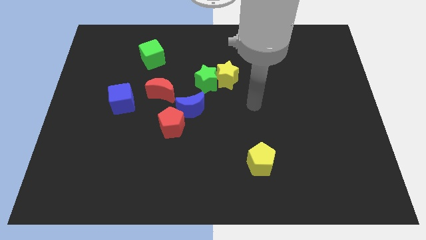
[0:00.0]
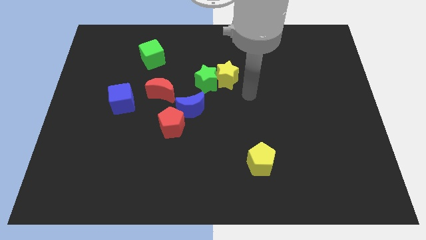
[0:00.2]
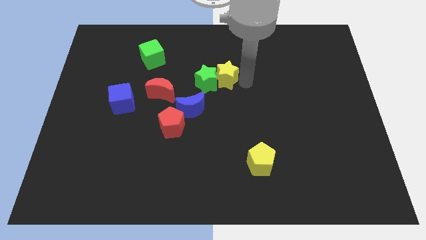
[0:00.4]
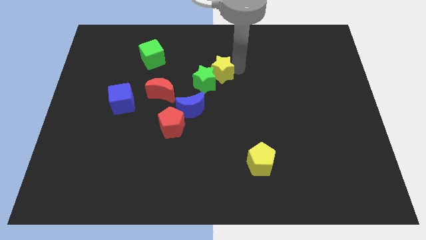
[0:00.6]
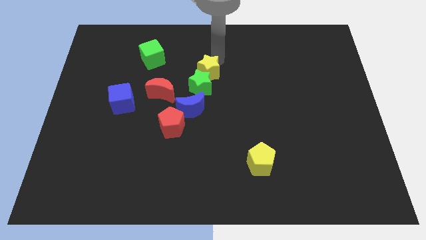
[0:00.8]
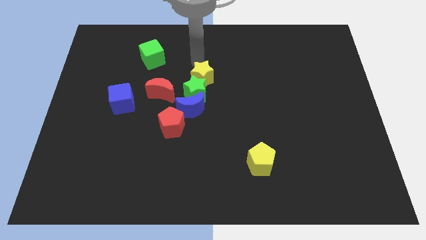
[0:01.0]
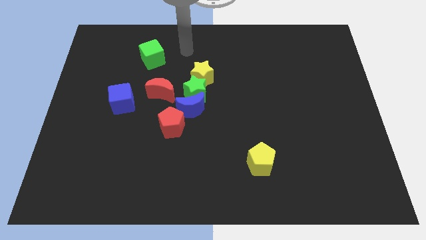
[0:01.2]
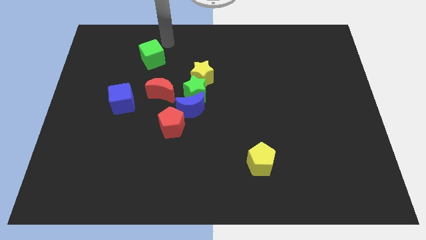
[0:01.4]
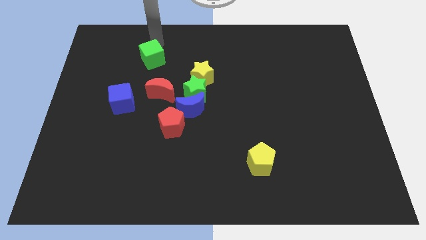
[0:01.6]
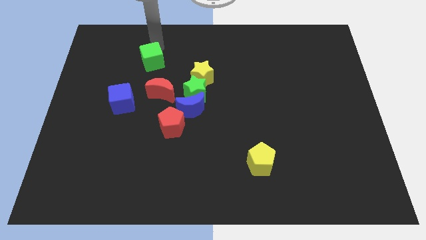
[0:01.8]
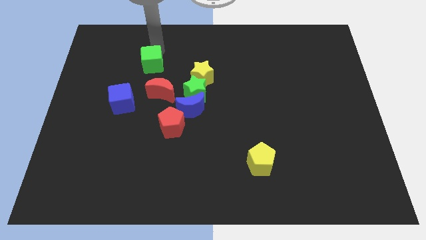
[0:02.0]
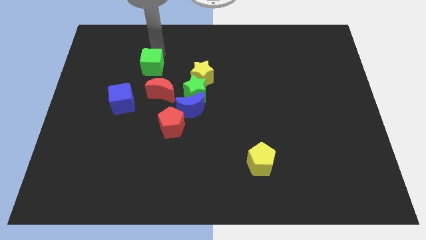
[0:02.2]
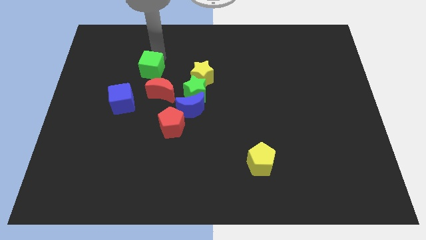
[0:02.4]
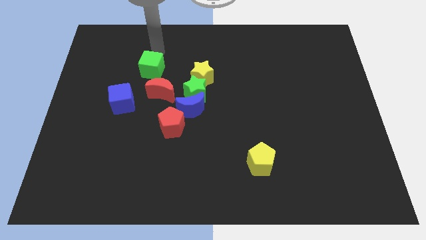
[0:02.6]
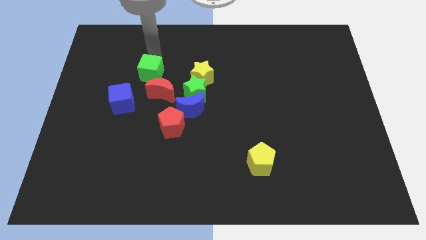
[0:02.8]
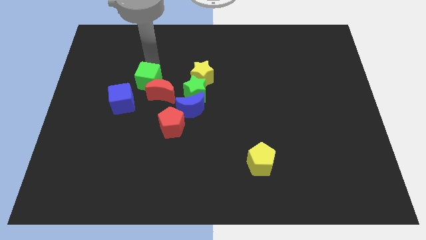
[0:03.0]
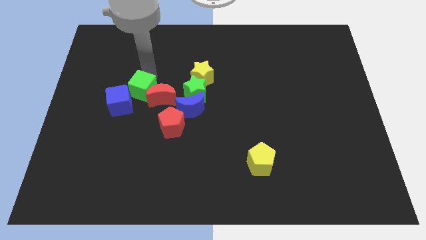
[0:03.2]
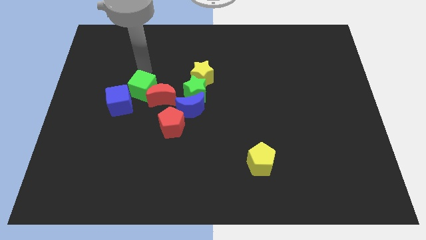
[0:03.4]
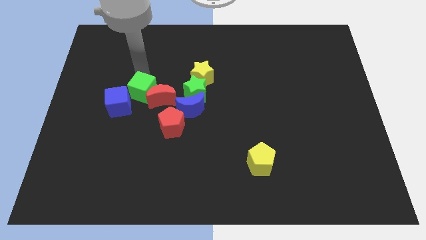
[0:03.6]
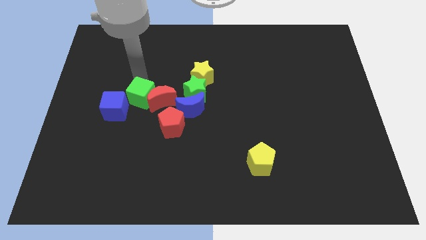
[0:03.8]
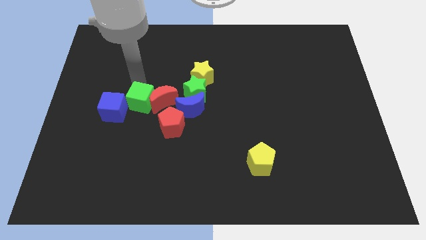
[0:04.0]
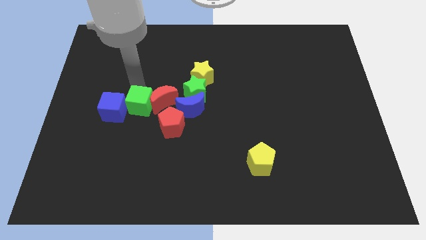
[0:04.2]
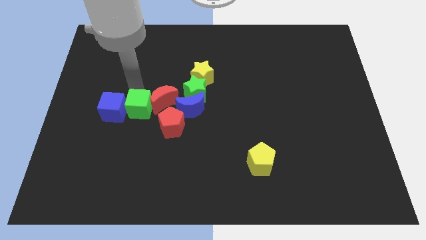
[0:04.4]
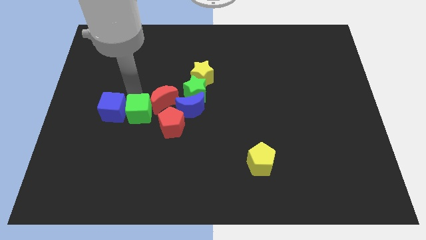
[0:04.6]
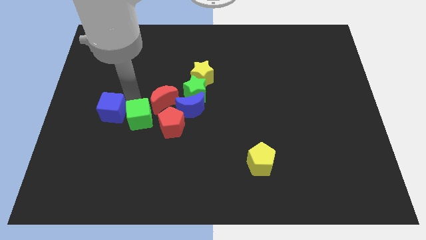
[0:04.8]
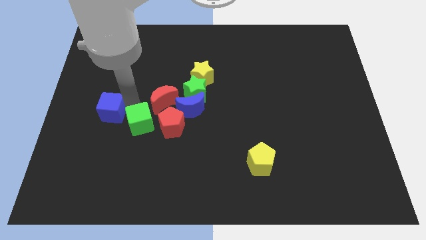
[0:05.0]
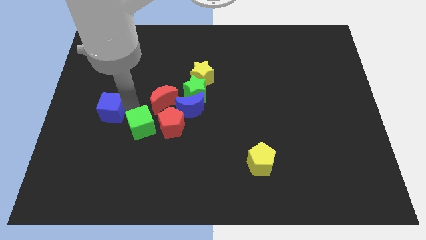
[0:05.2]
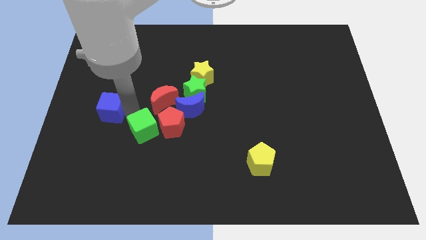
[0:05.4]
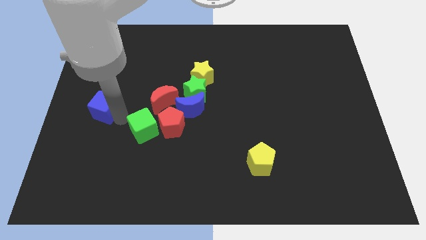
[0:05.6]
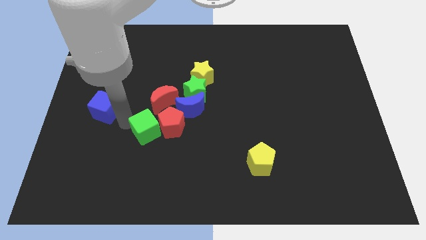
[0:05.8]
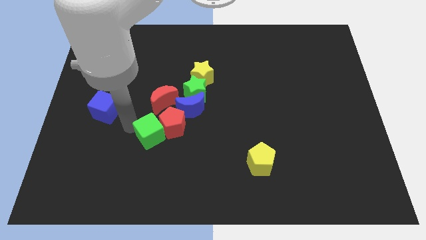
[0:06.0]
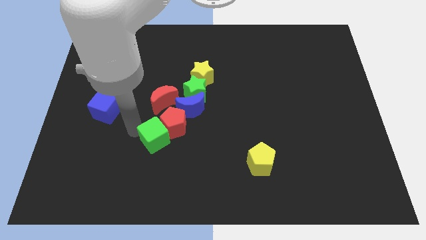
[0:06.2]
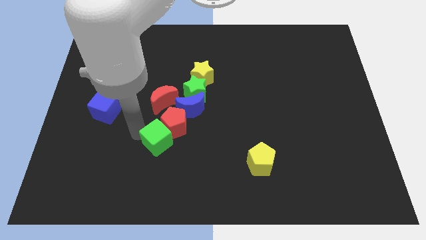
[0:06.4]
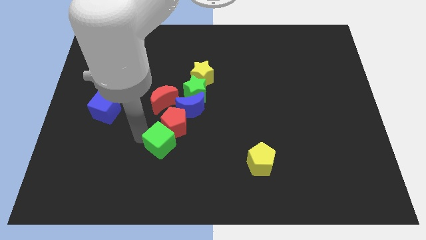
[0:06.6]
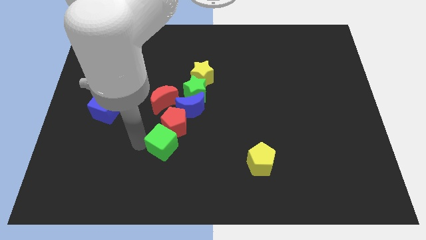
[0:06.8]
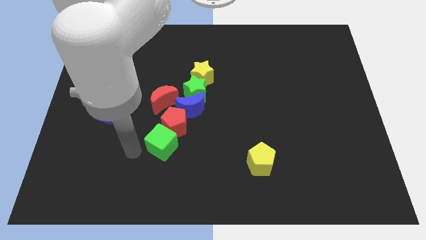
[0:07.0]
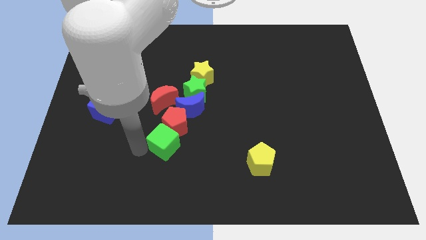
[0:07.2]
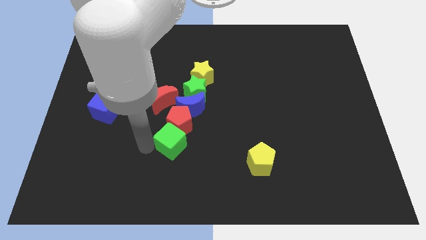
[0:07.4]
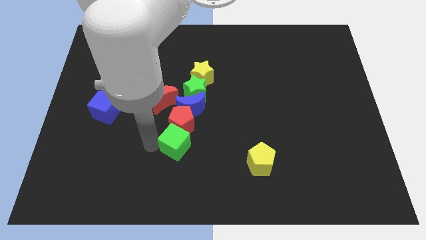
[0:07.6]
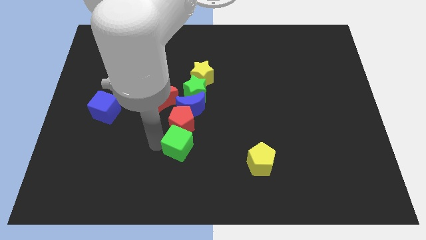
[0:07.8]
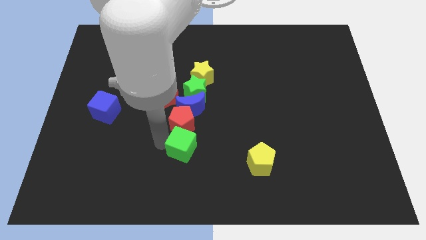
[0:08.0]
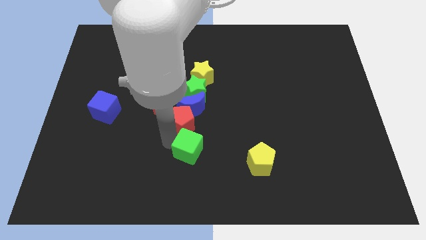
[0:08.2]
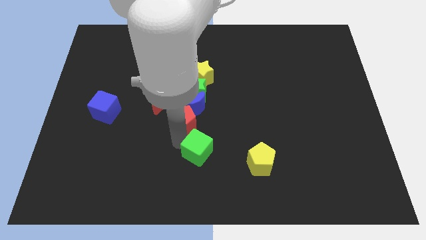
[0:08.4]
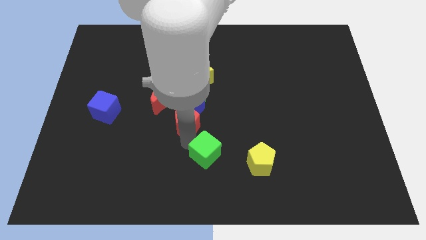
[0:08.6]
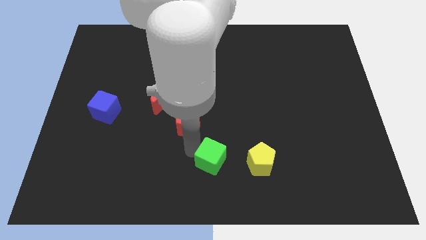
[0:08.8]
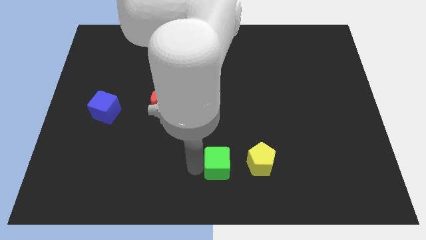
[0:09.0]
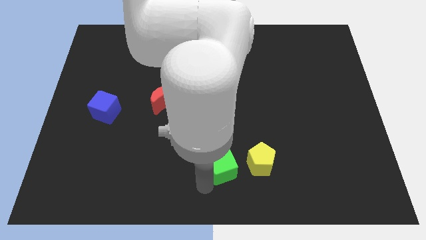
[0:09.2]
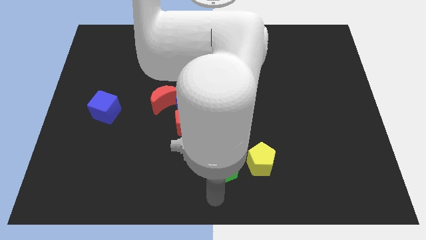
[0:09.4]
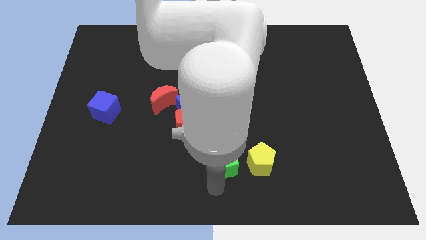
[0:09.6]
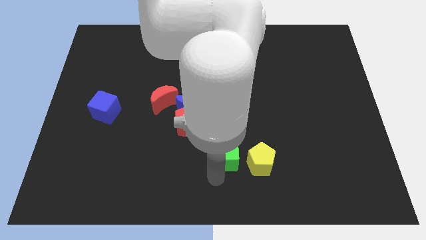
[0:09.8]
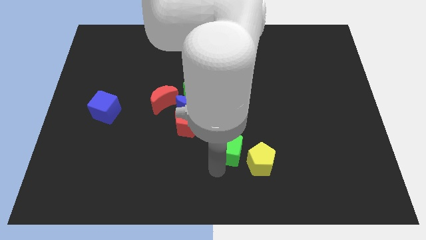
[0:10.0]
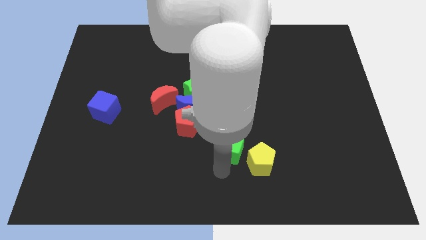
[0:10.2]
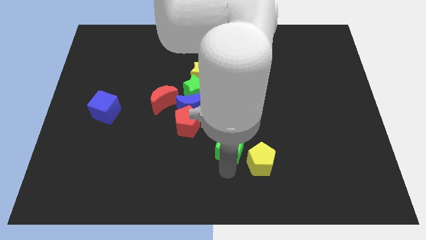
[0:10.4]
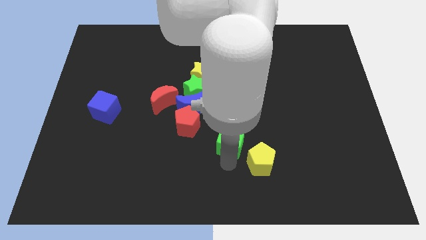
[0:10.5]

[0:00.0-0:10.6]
move the green cube to the right of the red pentagon

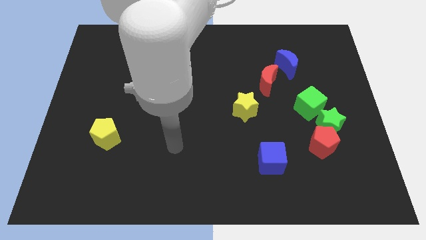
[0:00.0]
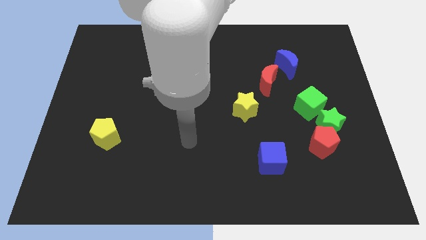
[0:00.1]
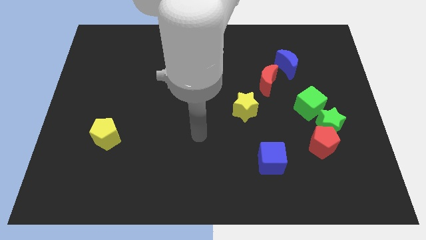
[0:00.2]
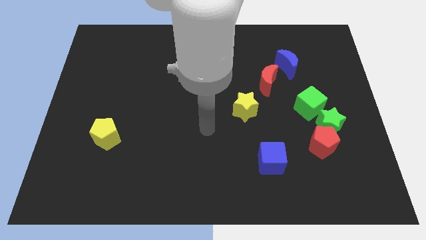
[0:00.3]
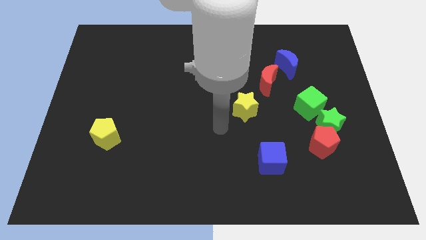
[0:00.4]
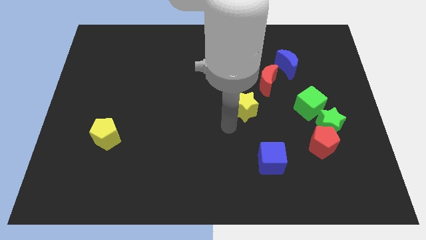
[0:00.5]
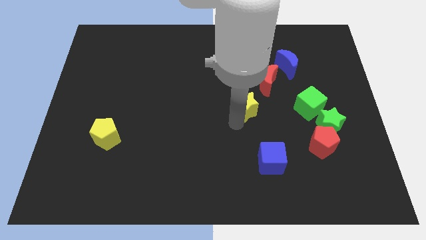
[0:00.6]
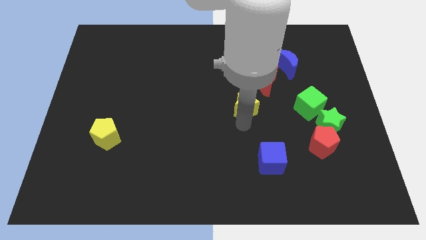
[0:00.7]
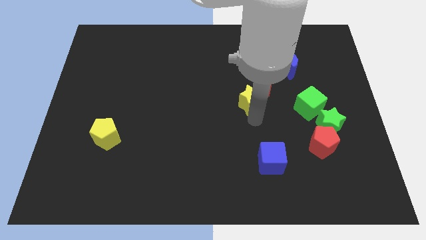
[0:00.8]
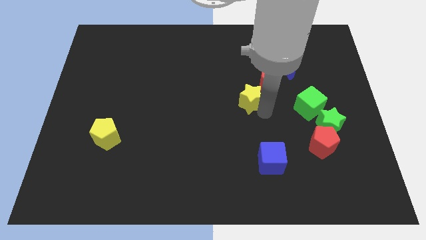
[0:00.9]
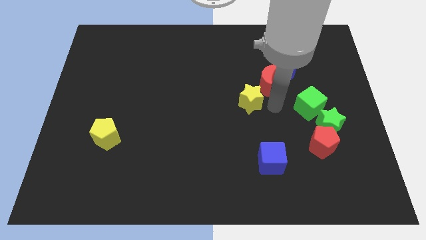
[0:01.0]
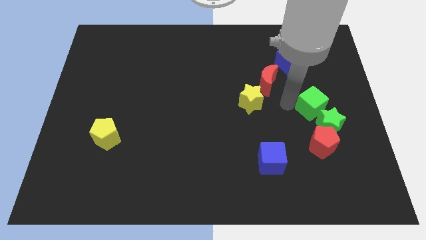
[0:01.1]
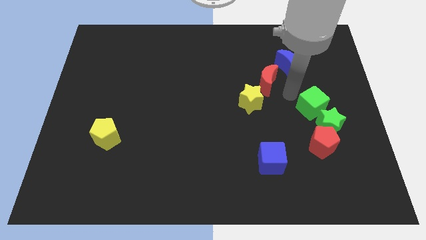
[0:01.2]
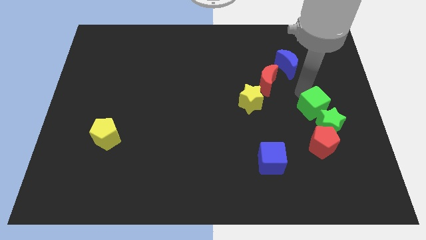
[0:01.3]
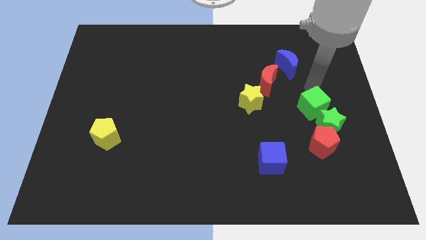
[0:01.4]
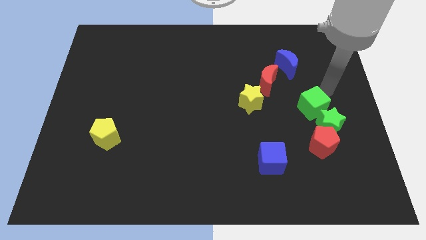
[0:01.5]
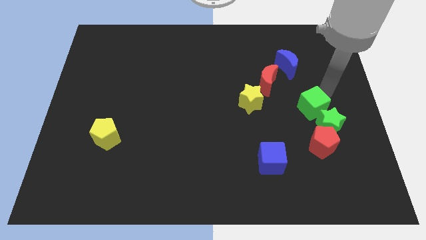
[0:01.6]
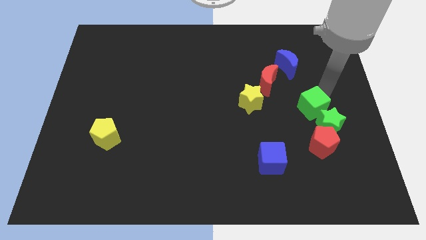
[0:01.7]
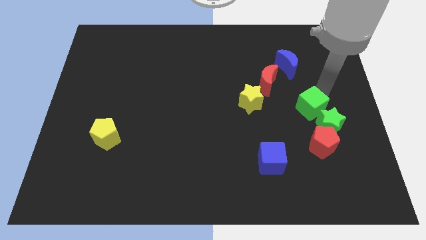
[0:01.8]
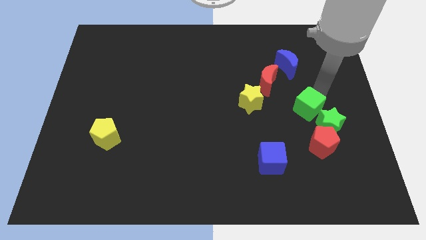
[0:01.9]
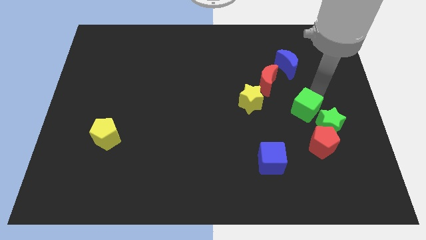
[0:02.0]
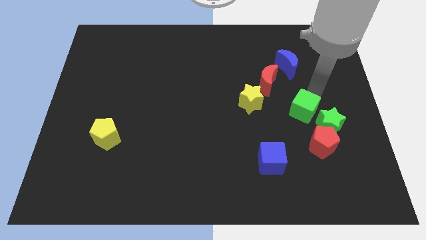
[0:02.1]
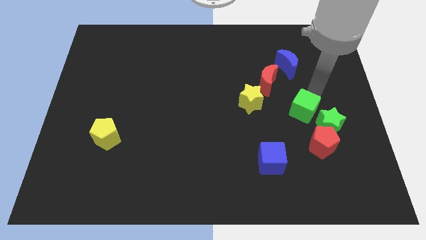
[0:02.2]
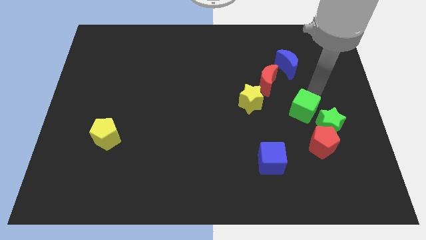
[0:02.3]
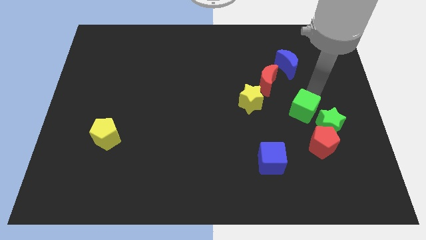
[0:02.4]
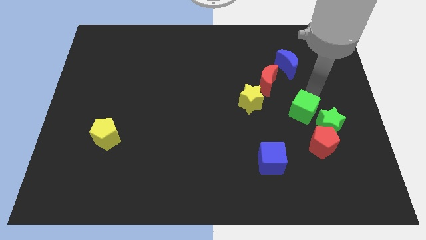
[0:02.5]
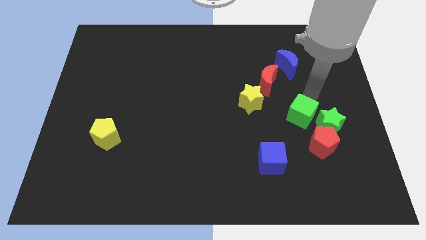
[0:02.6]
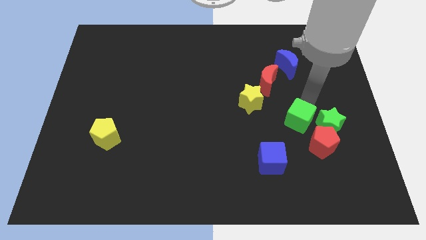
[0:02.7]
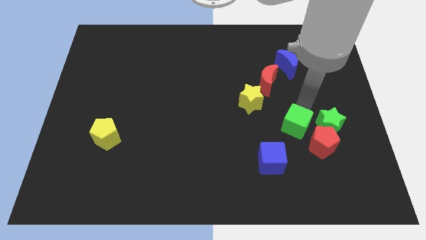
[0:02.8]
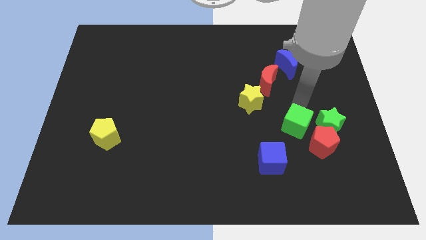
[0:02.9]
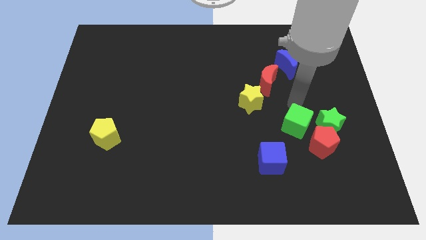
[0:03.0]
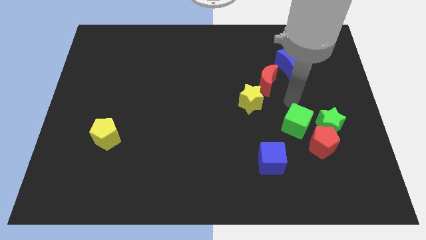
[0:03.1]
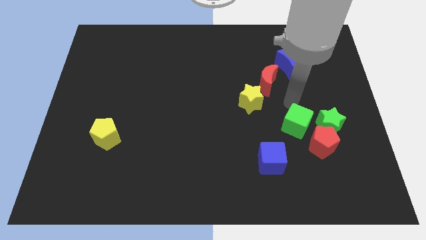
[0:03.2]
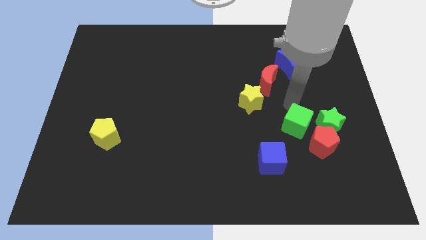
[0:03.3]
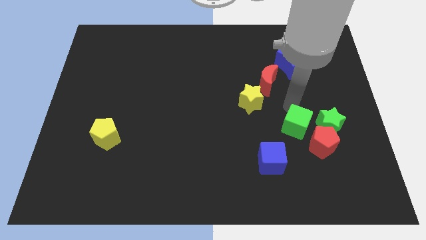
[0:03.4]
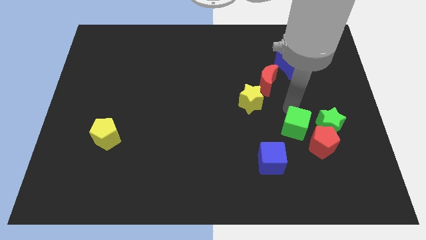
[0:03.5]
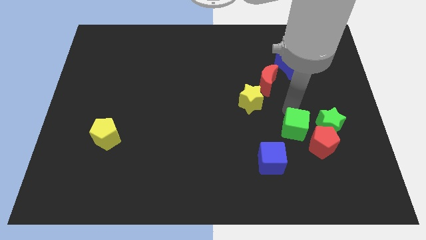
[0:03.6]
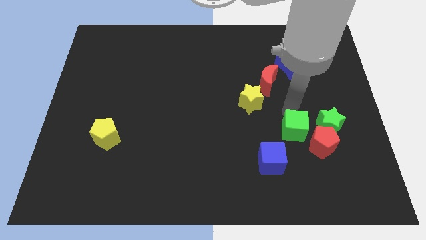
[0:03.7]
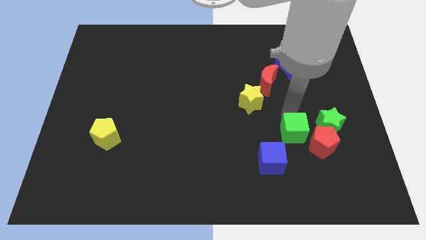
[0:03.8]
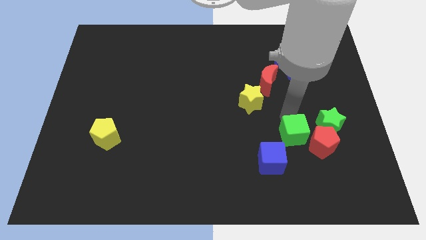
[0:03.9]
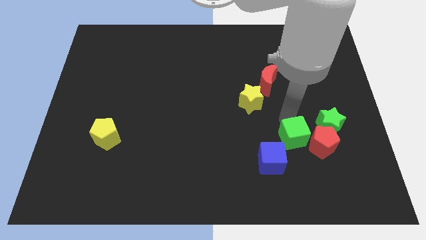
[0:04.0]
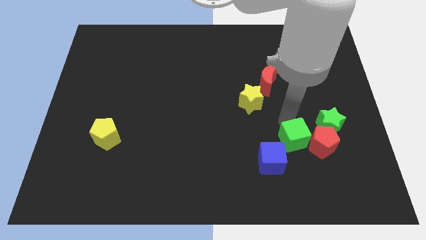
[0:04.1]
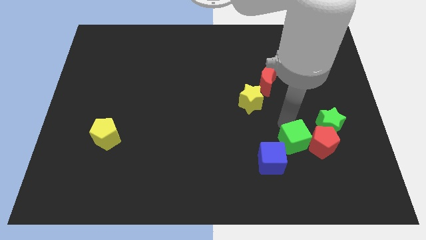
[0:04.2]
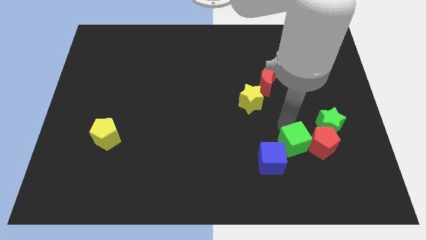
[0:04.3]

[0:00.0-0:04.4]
push the green cube just right of the blue cube
